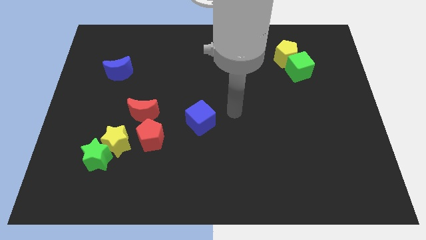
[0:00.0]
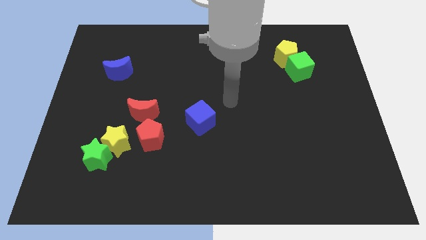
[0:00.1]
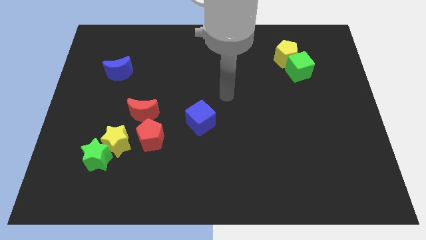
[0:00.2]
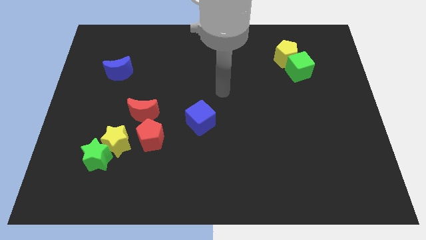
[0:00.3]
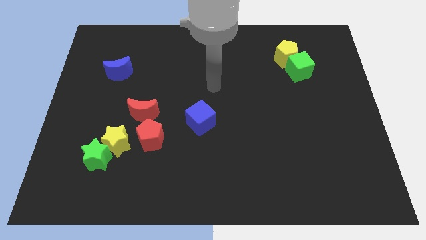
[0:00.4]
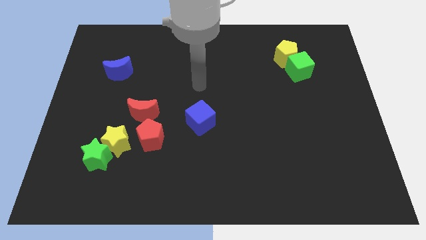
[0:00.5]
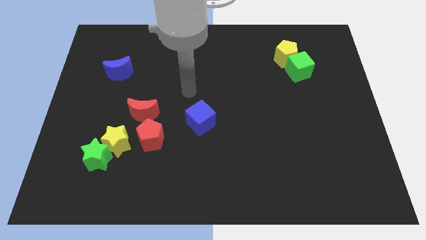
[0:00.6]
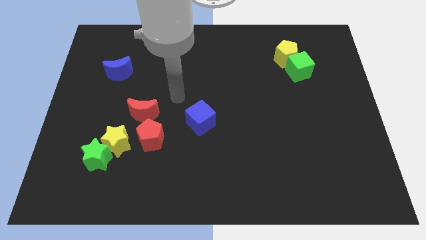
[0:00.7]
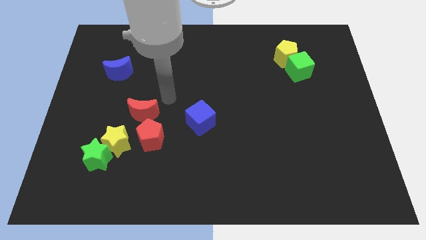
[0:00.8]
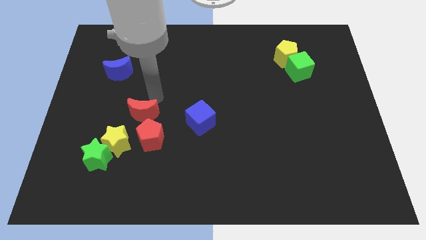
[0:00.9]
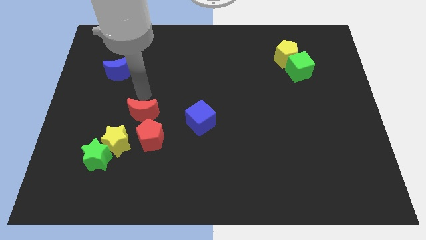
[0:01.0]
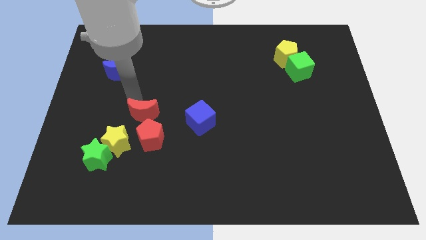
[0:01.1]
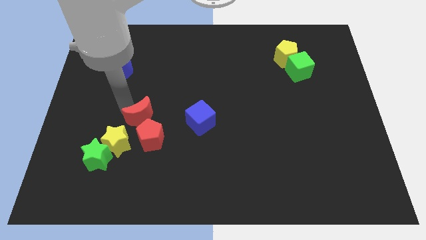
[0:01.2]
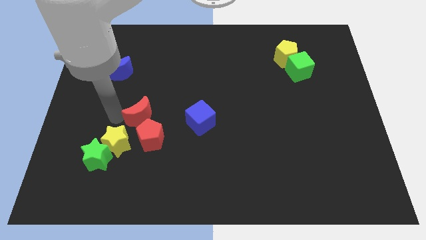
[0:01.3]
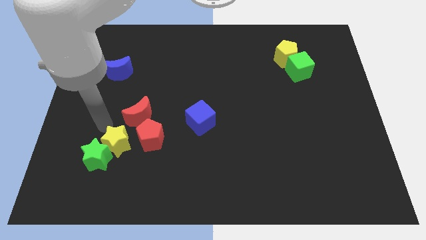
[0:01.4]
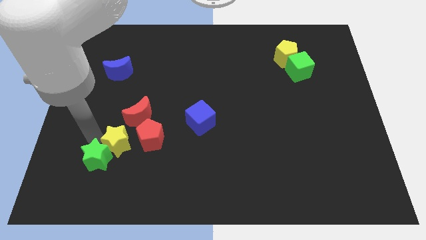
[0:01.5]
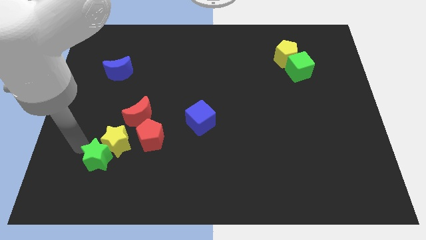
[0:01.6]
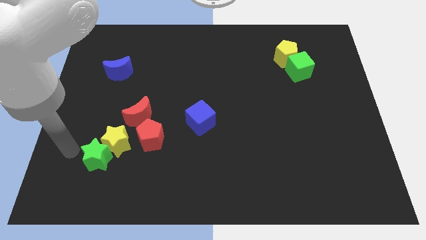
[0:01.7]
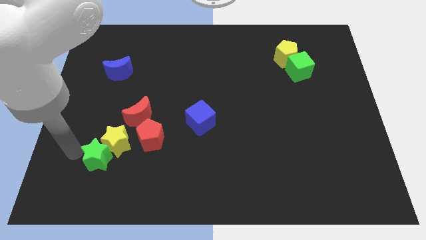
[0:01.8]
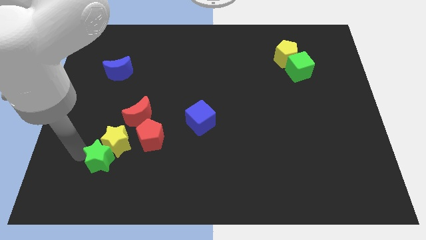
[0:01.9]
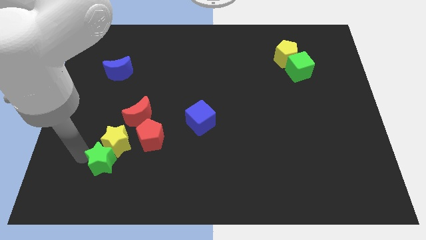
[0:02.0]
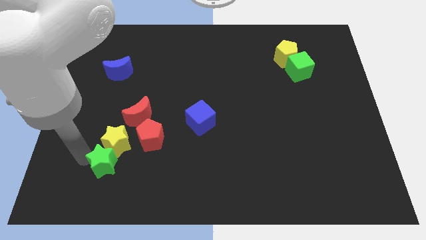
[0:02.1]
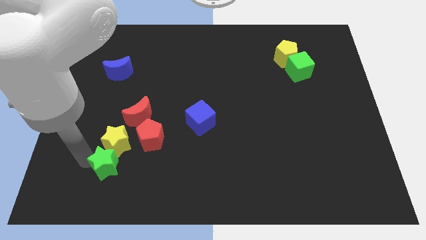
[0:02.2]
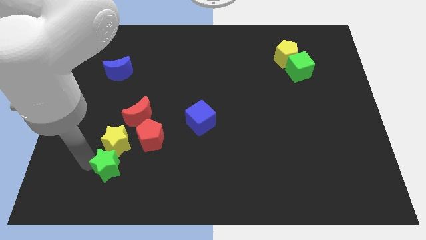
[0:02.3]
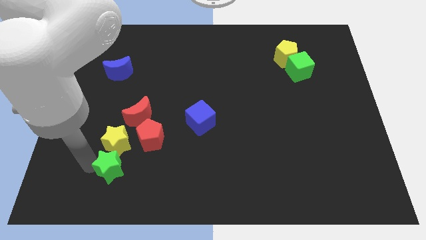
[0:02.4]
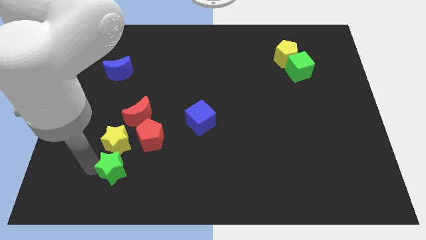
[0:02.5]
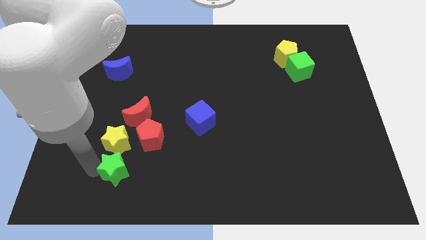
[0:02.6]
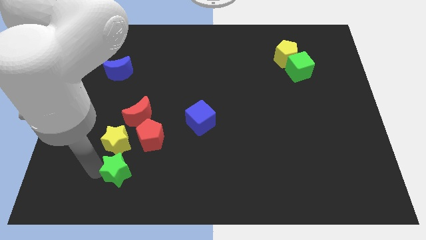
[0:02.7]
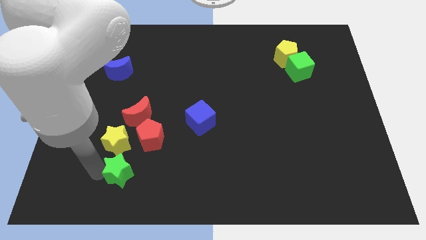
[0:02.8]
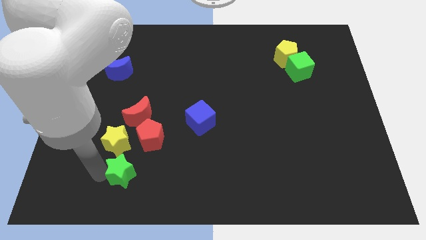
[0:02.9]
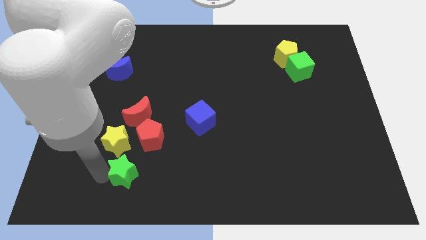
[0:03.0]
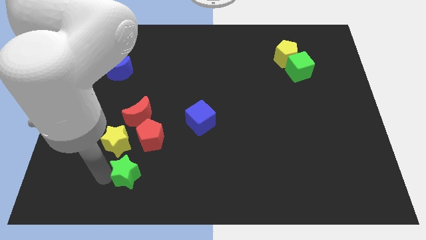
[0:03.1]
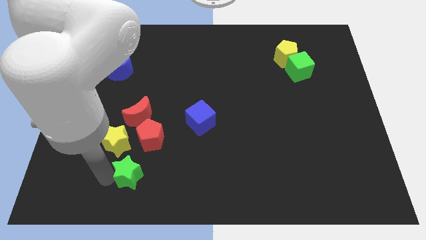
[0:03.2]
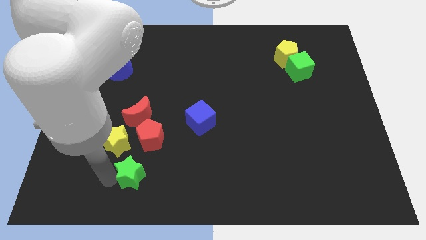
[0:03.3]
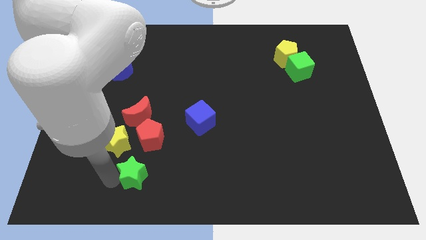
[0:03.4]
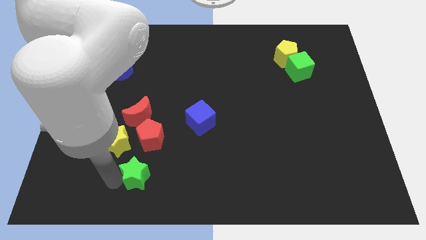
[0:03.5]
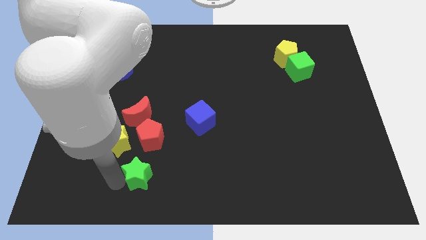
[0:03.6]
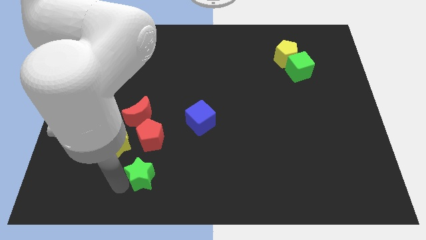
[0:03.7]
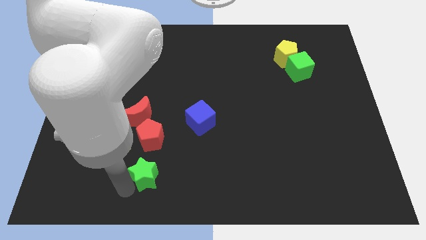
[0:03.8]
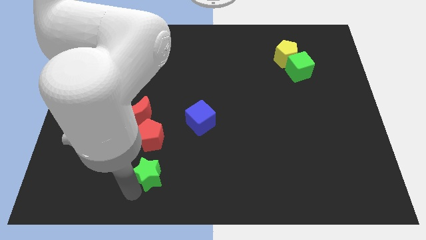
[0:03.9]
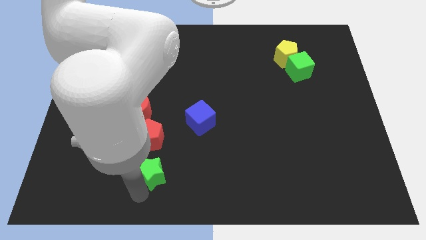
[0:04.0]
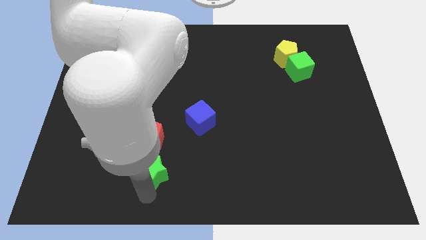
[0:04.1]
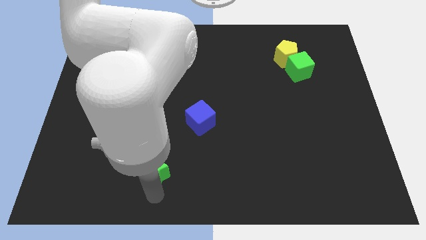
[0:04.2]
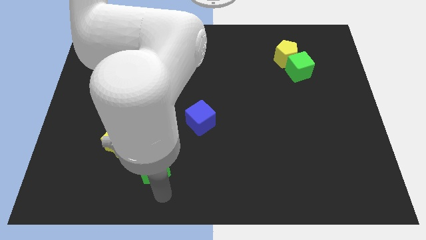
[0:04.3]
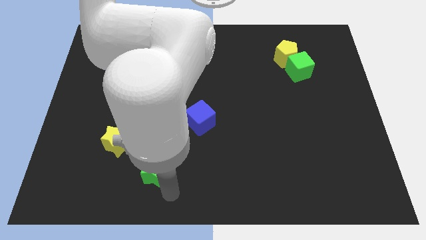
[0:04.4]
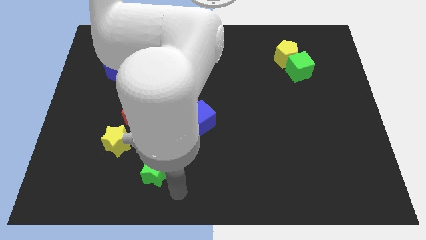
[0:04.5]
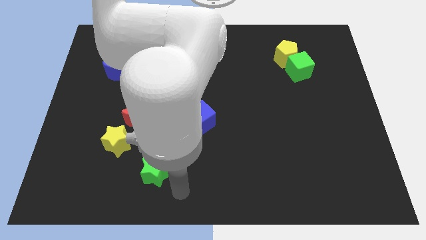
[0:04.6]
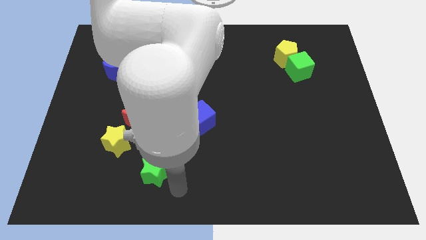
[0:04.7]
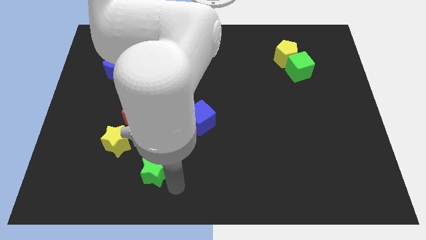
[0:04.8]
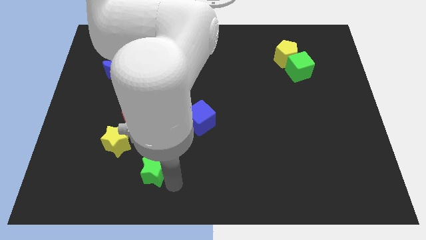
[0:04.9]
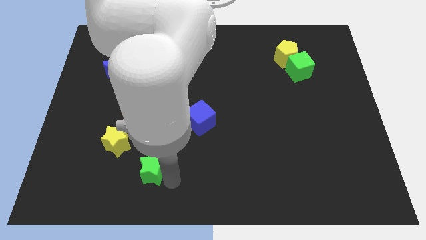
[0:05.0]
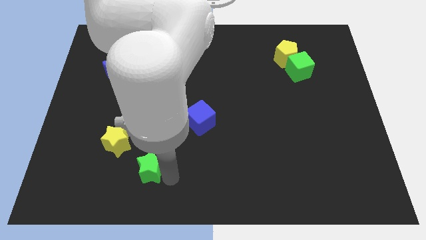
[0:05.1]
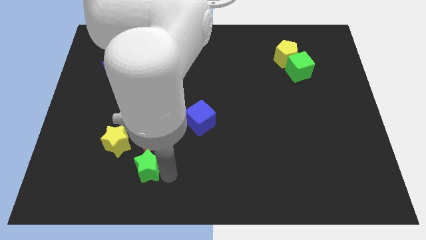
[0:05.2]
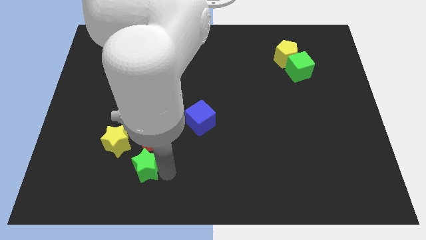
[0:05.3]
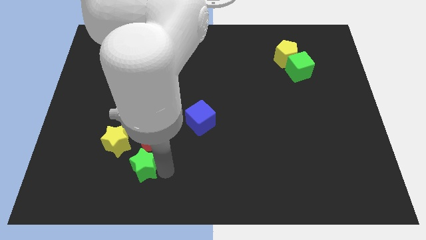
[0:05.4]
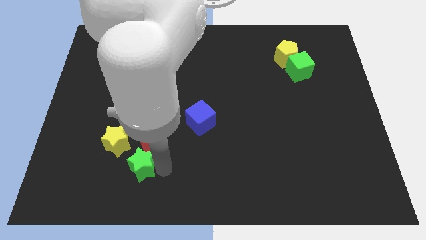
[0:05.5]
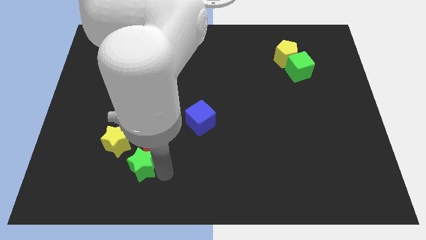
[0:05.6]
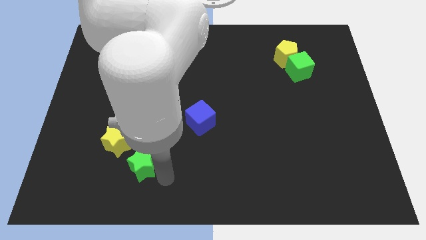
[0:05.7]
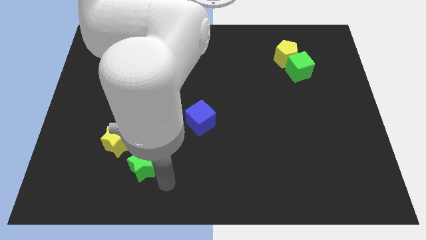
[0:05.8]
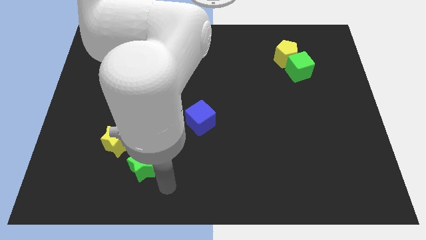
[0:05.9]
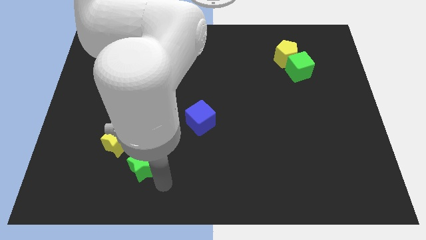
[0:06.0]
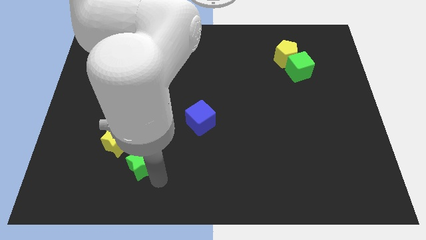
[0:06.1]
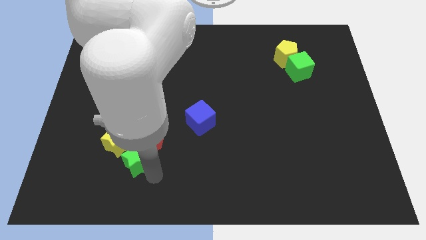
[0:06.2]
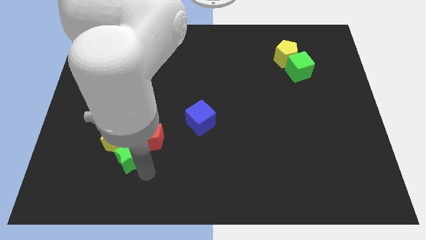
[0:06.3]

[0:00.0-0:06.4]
push the green star close to the red pentagon
